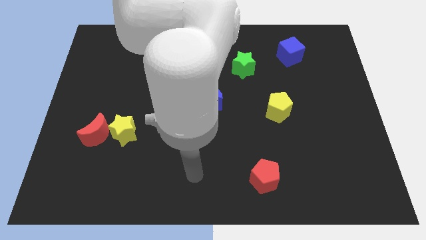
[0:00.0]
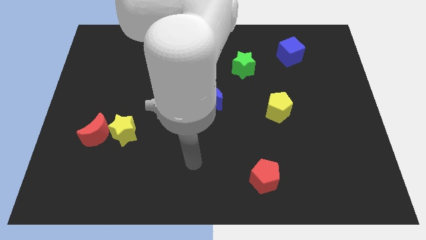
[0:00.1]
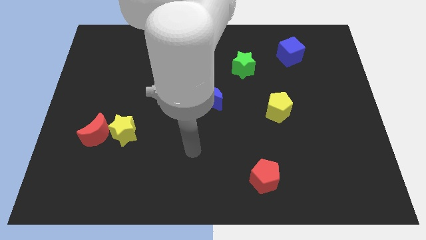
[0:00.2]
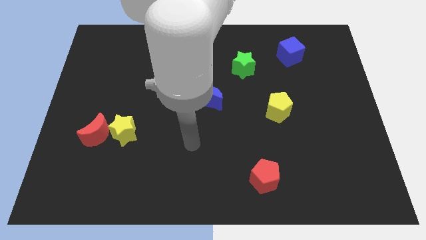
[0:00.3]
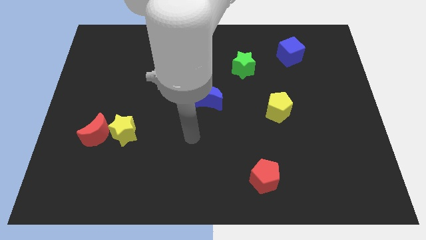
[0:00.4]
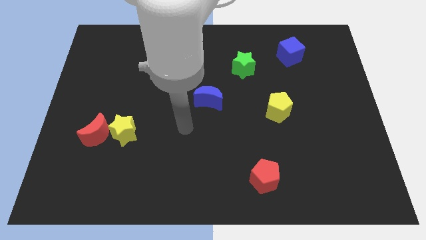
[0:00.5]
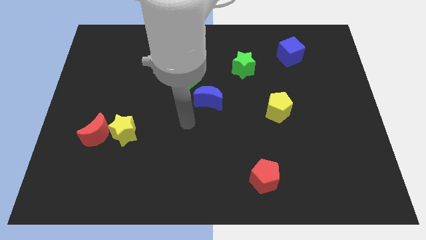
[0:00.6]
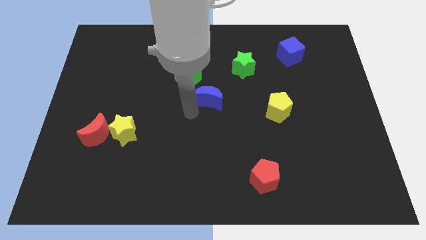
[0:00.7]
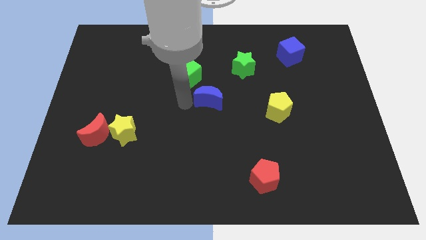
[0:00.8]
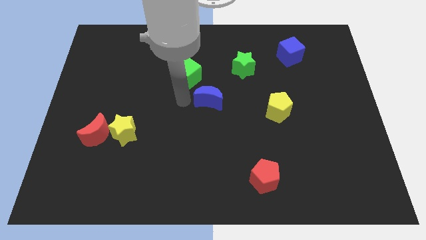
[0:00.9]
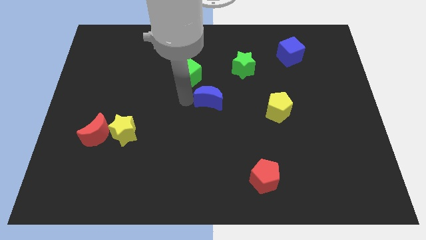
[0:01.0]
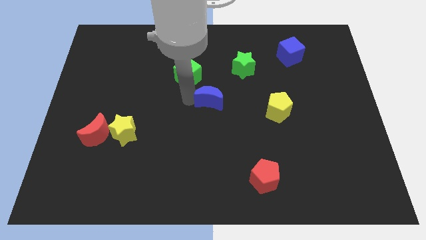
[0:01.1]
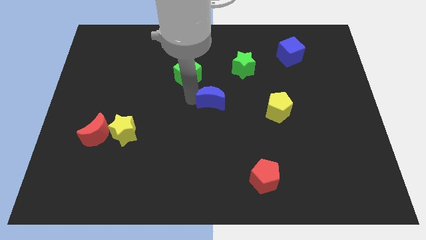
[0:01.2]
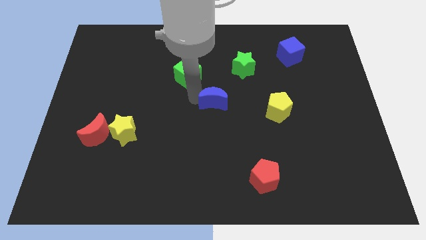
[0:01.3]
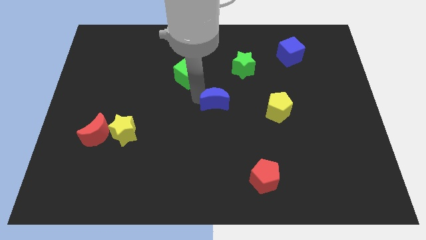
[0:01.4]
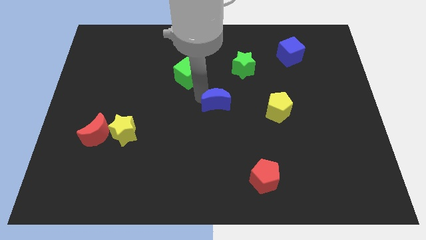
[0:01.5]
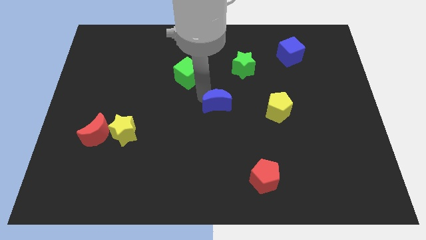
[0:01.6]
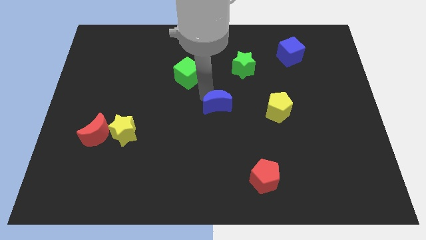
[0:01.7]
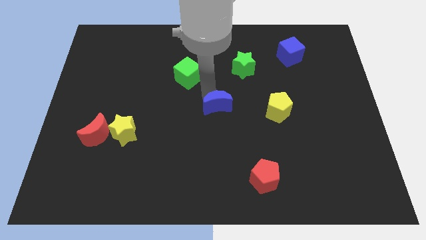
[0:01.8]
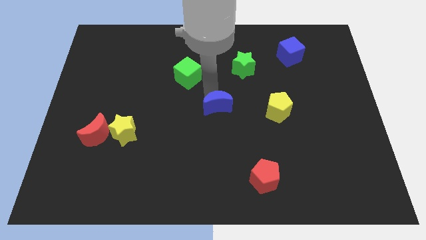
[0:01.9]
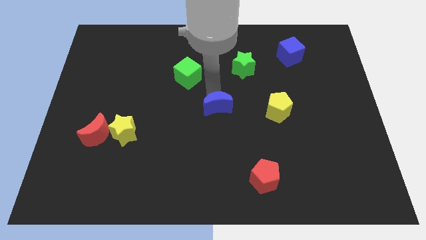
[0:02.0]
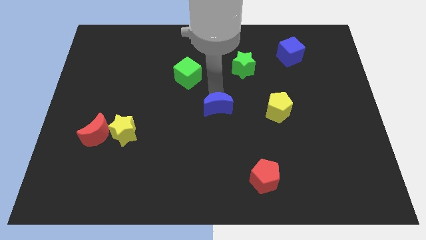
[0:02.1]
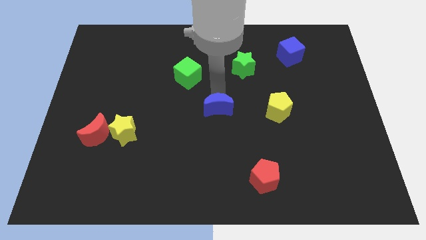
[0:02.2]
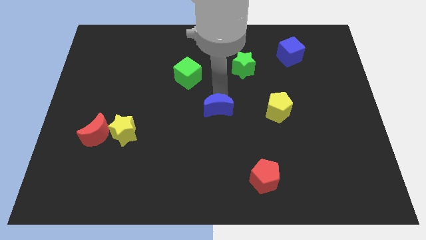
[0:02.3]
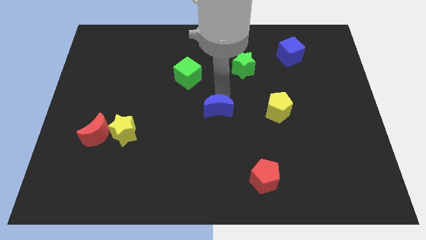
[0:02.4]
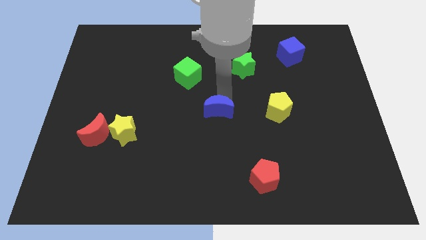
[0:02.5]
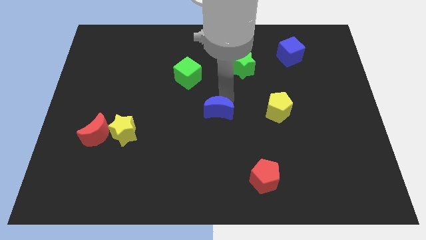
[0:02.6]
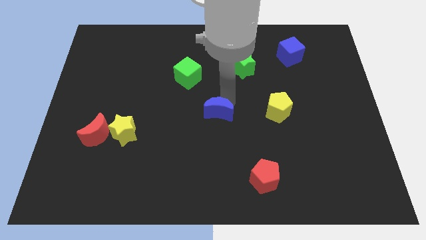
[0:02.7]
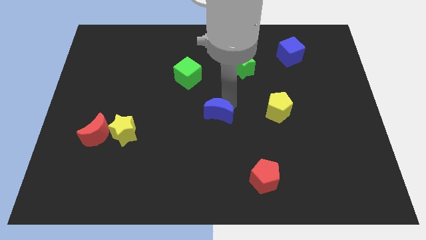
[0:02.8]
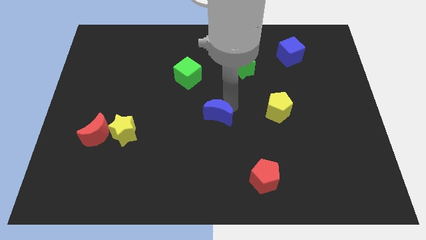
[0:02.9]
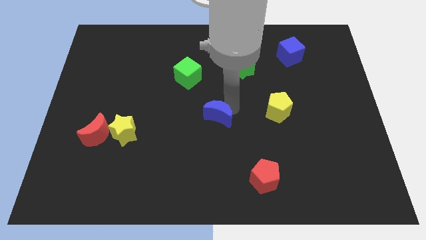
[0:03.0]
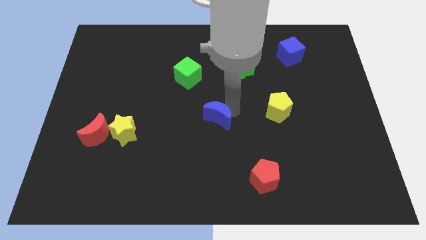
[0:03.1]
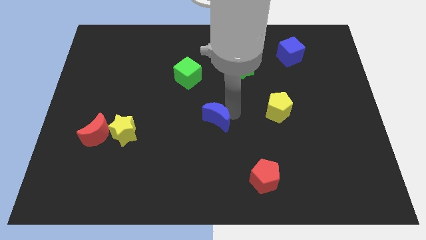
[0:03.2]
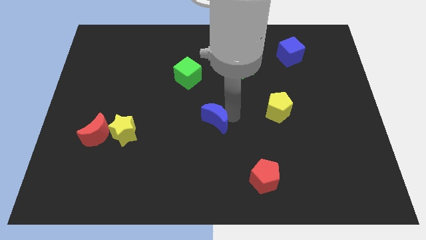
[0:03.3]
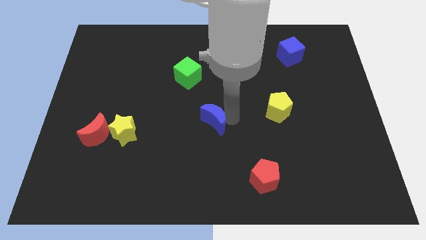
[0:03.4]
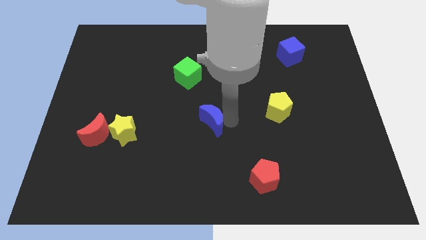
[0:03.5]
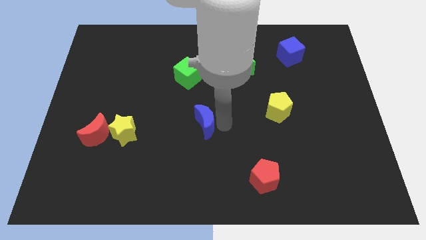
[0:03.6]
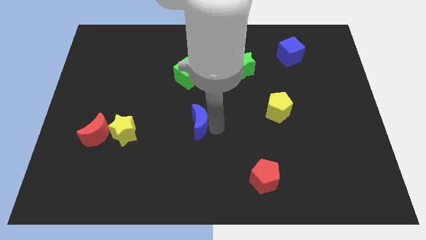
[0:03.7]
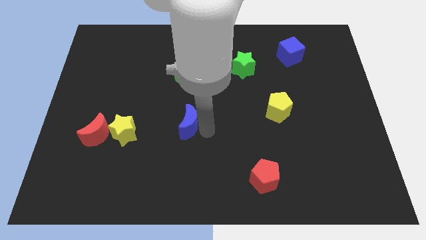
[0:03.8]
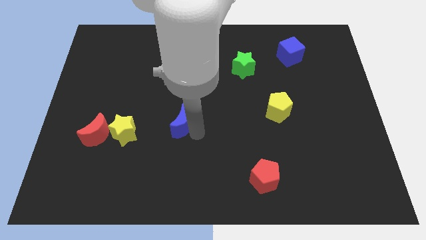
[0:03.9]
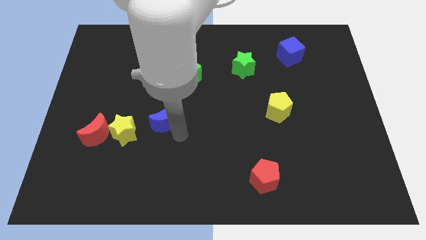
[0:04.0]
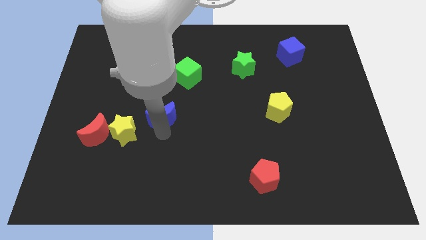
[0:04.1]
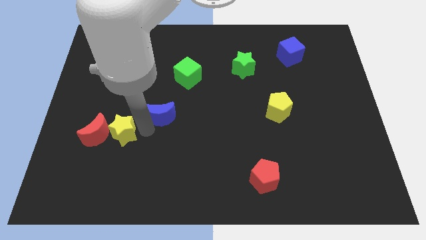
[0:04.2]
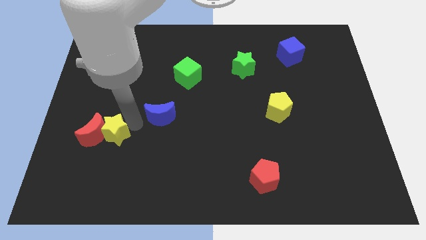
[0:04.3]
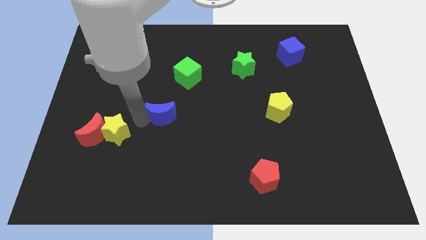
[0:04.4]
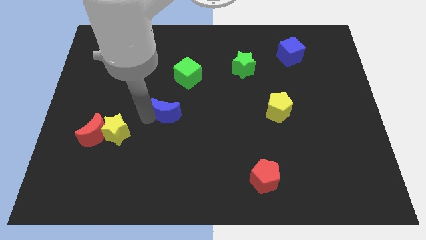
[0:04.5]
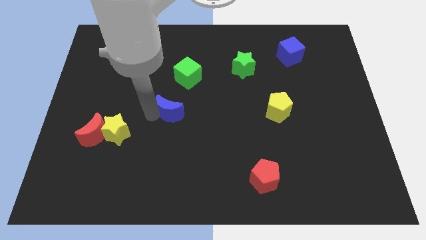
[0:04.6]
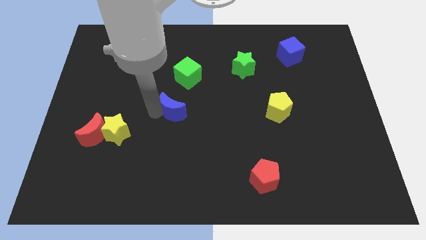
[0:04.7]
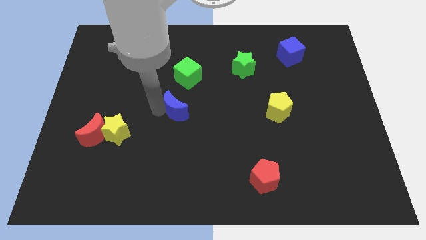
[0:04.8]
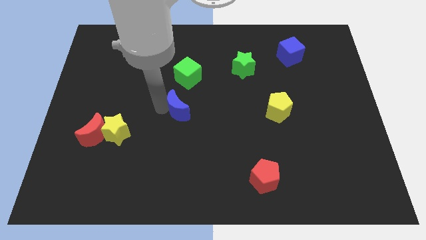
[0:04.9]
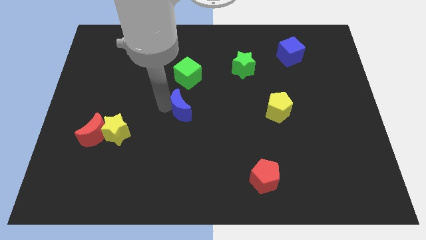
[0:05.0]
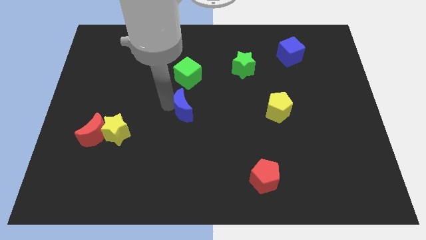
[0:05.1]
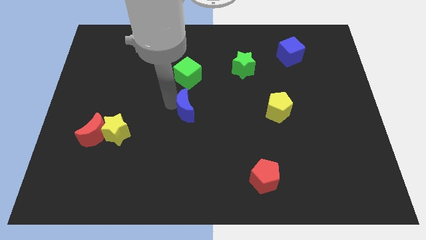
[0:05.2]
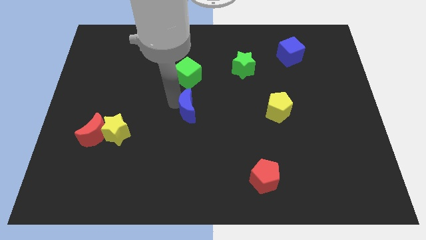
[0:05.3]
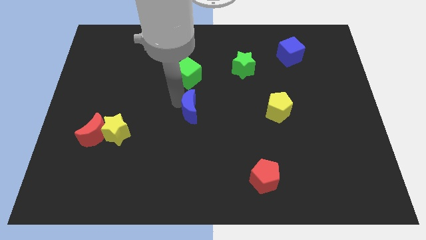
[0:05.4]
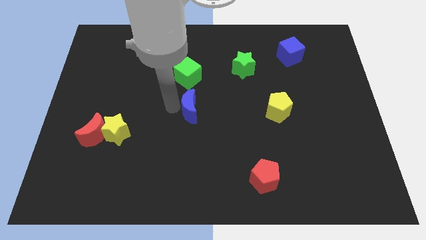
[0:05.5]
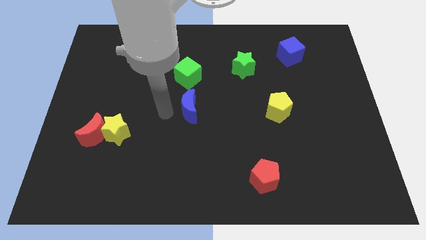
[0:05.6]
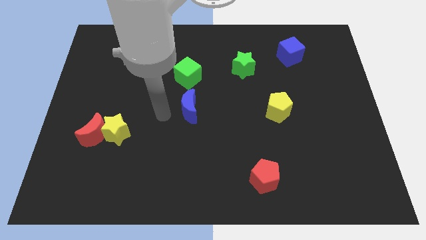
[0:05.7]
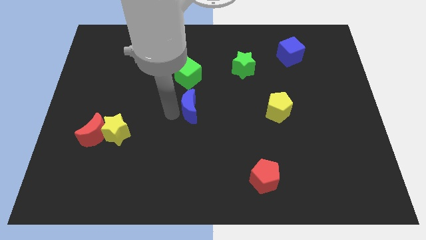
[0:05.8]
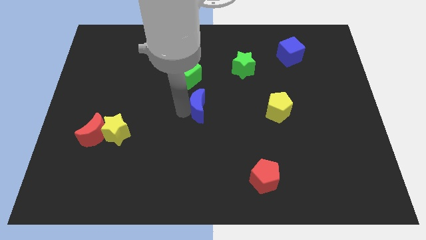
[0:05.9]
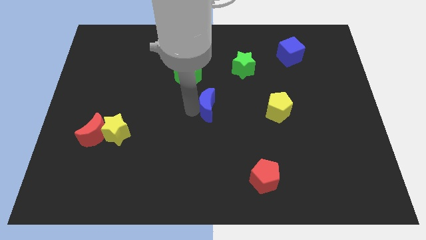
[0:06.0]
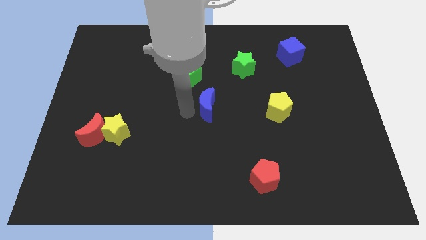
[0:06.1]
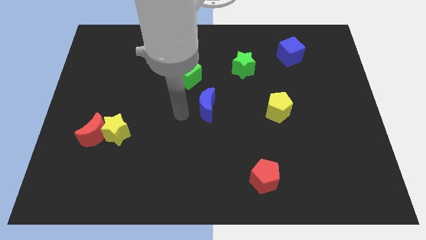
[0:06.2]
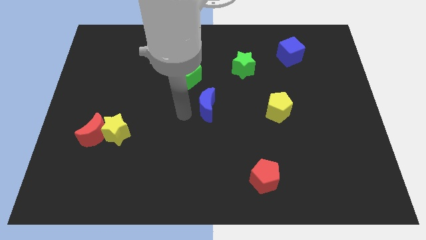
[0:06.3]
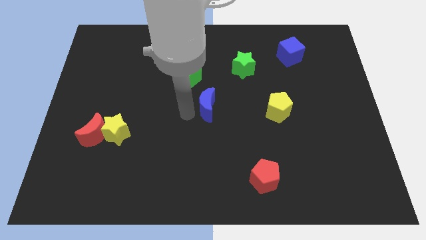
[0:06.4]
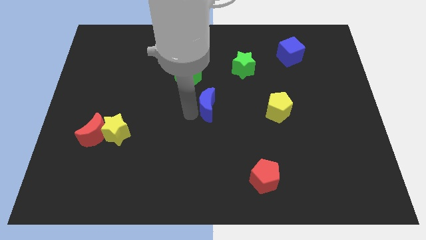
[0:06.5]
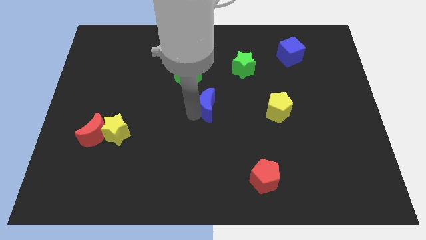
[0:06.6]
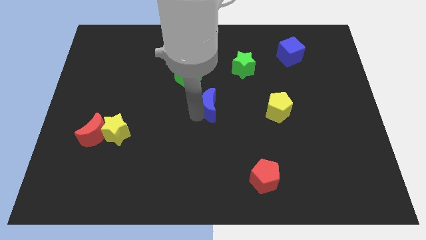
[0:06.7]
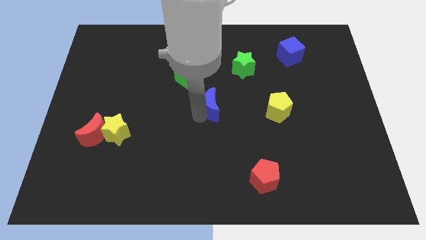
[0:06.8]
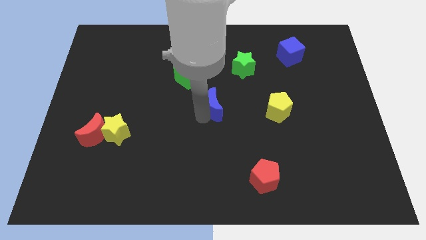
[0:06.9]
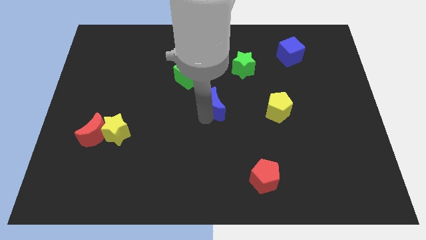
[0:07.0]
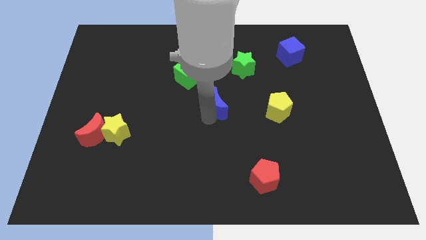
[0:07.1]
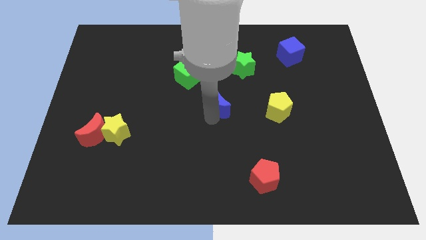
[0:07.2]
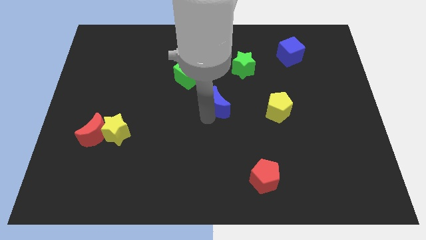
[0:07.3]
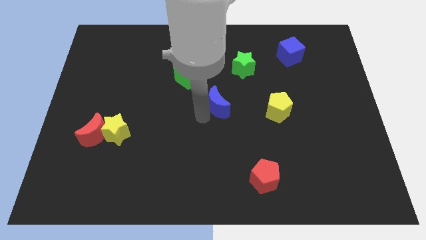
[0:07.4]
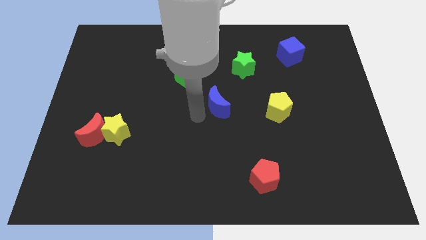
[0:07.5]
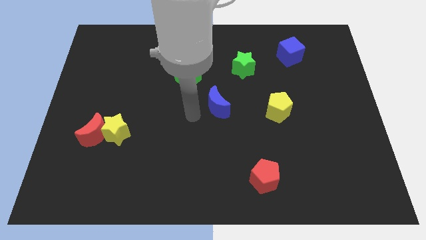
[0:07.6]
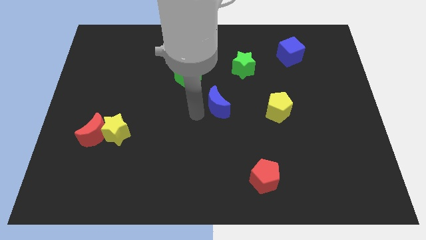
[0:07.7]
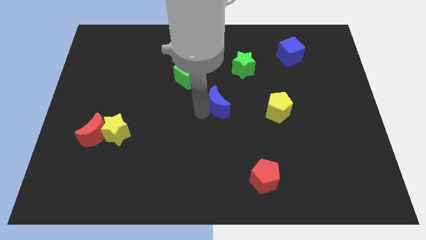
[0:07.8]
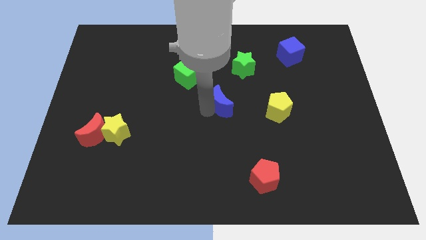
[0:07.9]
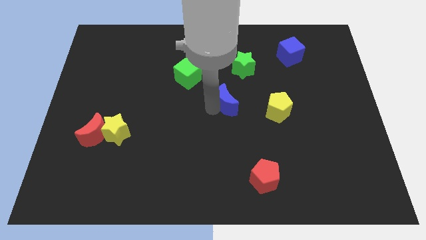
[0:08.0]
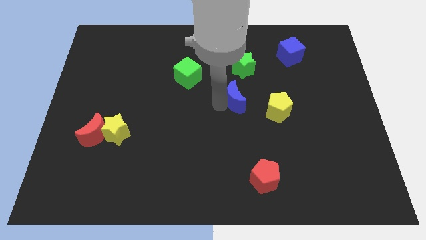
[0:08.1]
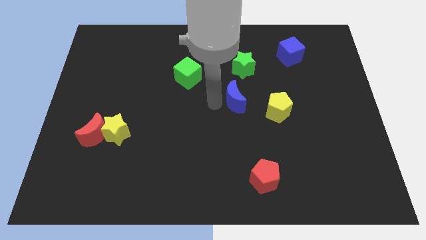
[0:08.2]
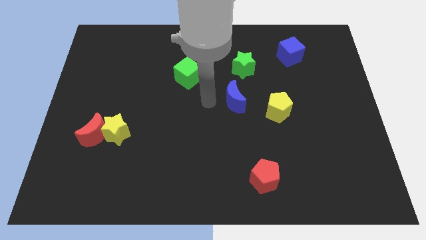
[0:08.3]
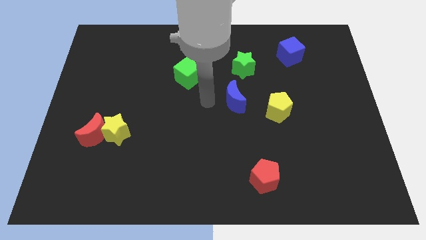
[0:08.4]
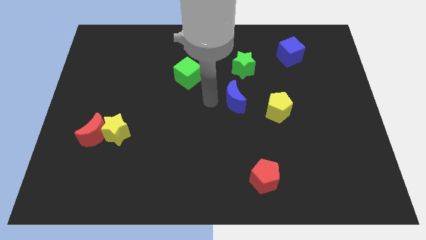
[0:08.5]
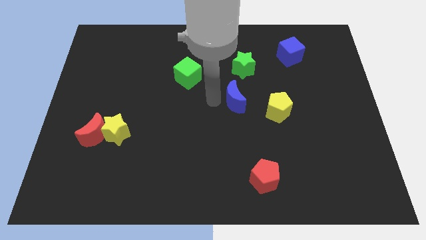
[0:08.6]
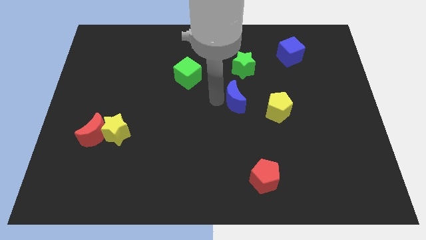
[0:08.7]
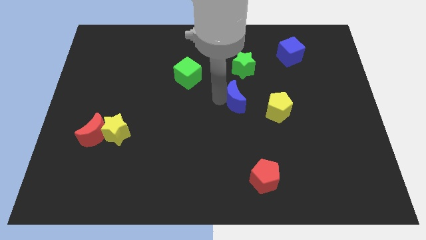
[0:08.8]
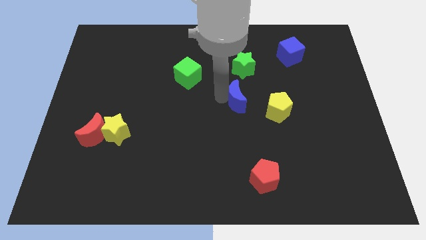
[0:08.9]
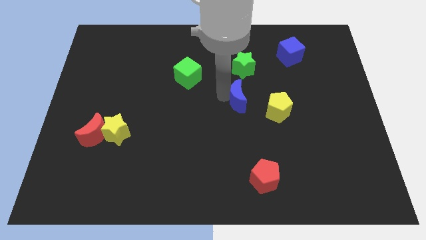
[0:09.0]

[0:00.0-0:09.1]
slightly slide the blue moon right
